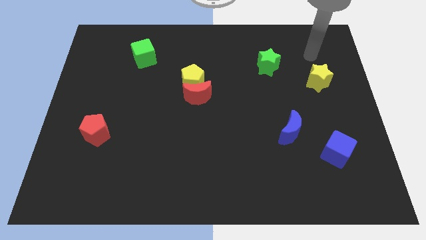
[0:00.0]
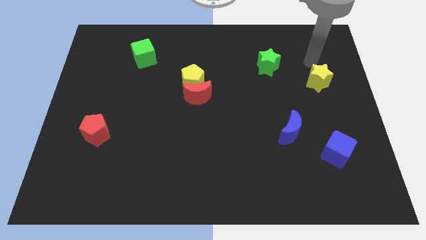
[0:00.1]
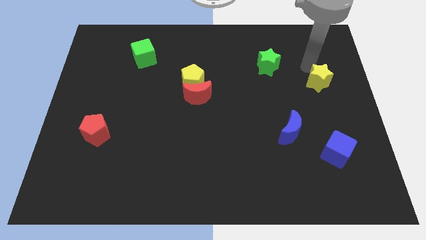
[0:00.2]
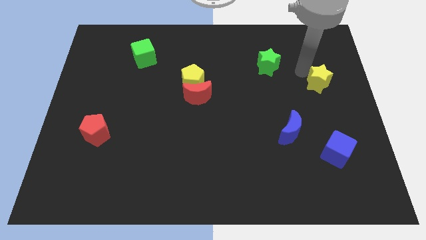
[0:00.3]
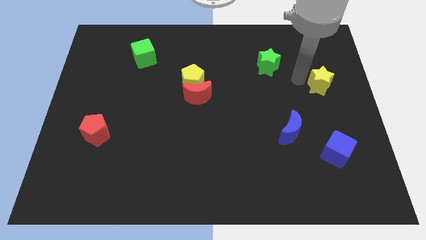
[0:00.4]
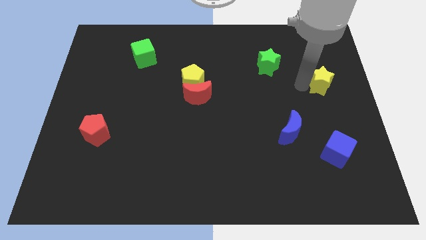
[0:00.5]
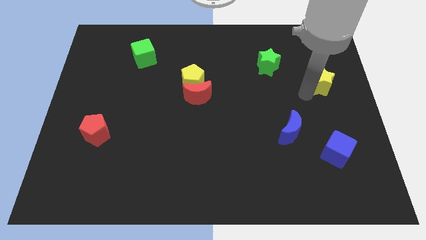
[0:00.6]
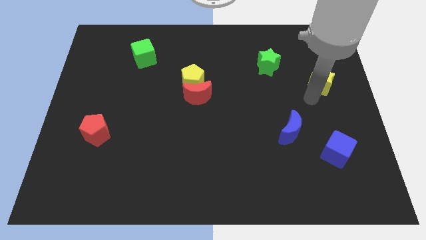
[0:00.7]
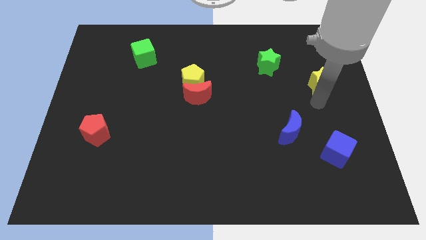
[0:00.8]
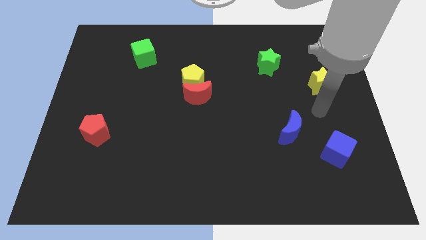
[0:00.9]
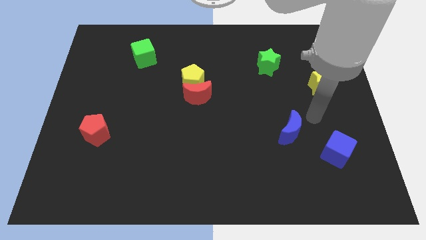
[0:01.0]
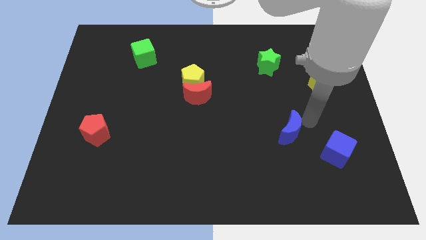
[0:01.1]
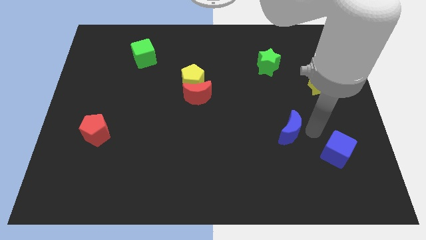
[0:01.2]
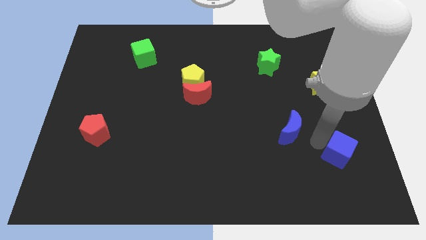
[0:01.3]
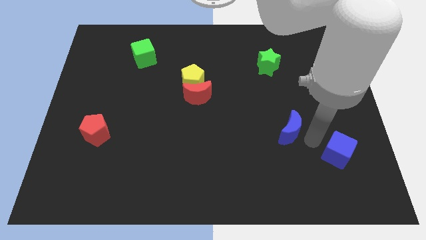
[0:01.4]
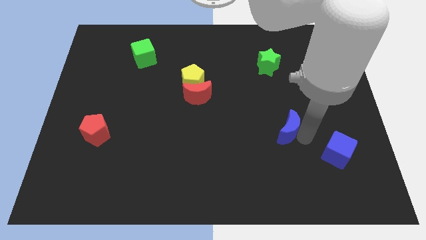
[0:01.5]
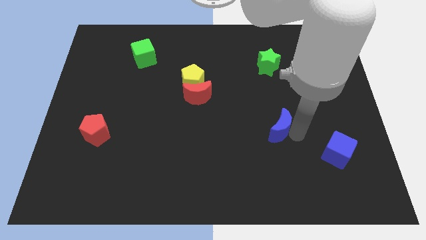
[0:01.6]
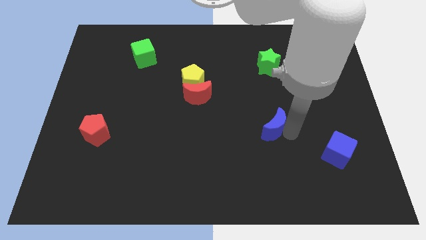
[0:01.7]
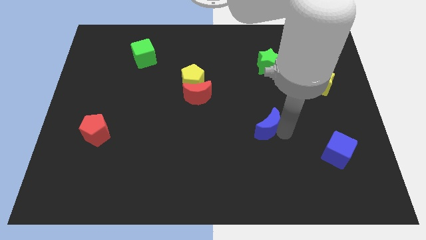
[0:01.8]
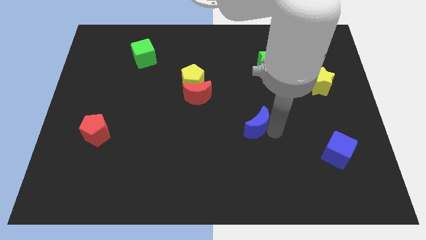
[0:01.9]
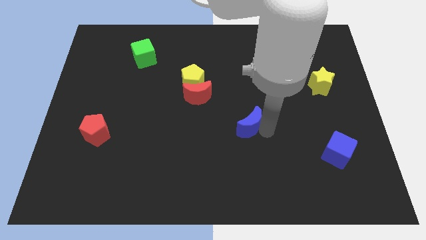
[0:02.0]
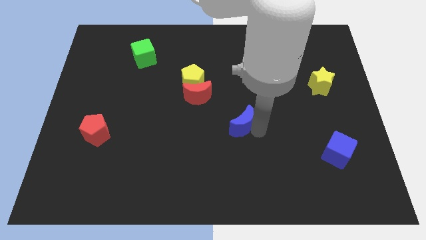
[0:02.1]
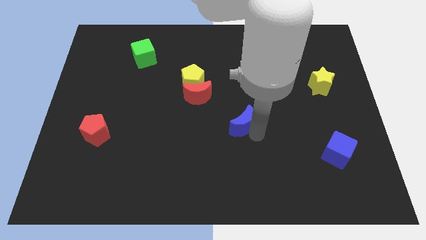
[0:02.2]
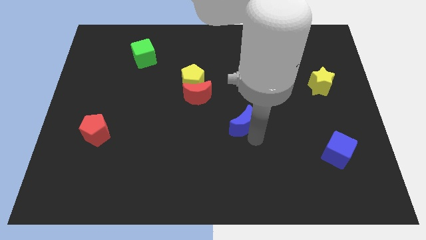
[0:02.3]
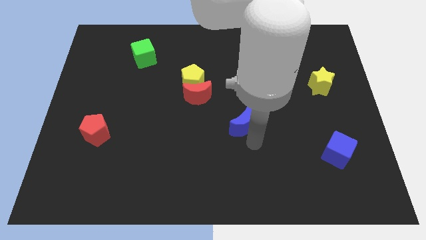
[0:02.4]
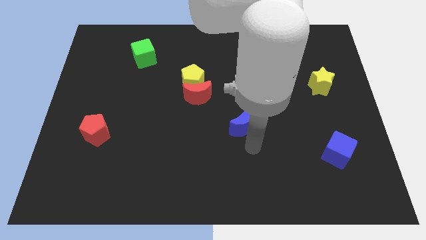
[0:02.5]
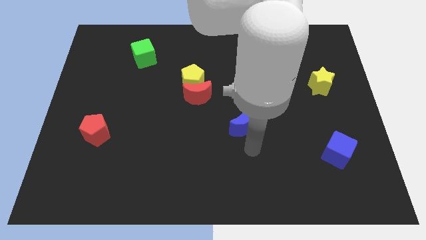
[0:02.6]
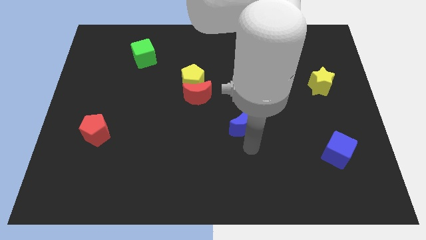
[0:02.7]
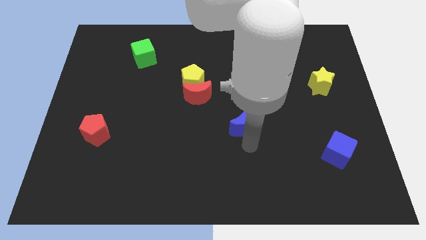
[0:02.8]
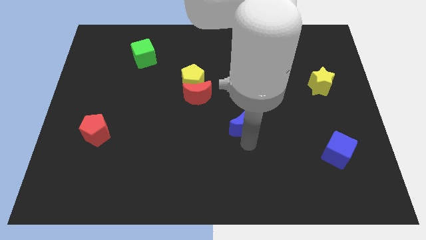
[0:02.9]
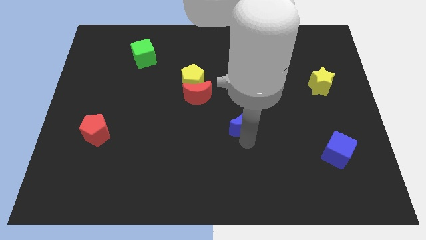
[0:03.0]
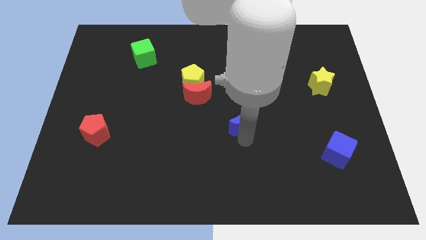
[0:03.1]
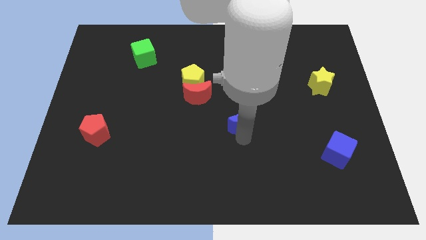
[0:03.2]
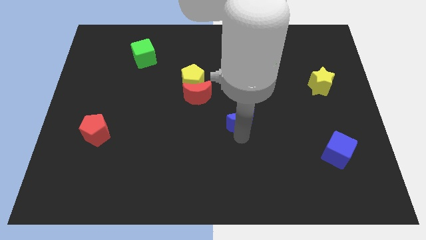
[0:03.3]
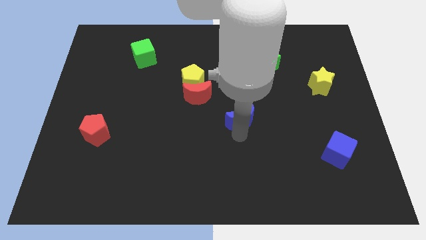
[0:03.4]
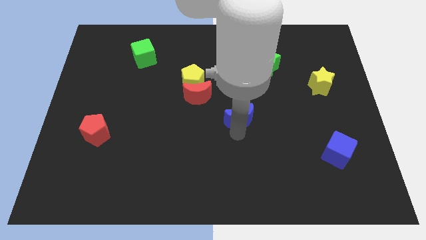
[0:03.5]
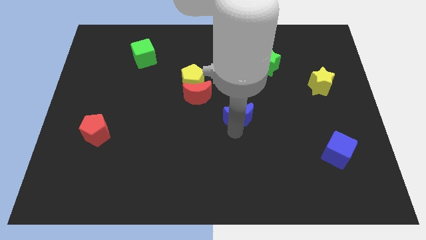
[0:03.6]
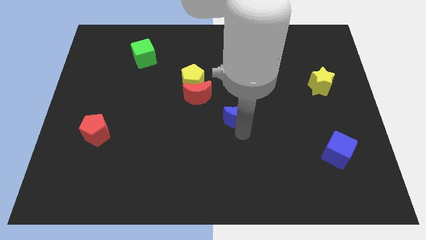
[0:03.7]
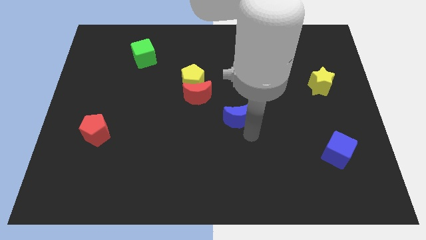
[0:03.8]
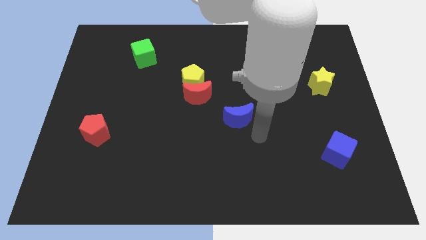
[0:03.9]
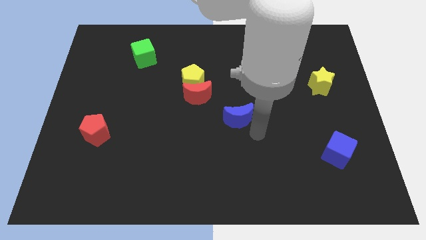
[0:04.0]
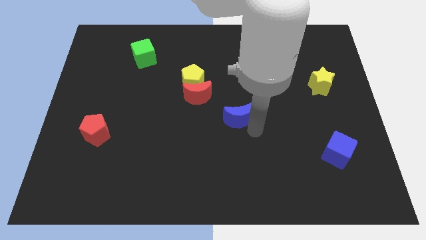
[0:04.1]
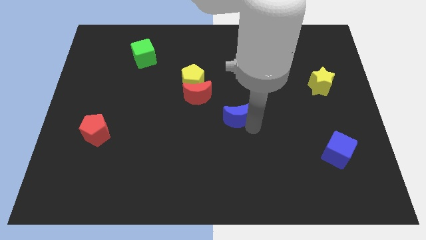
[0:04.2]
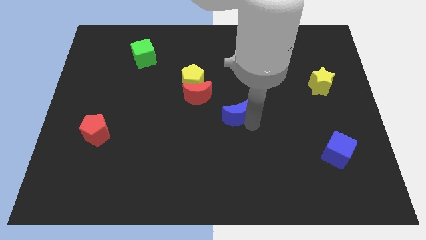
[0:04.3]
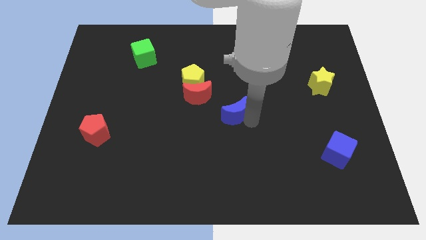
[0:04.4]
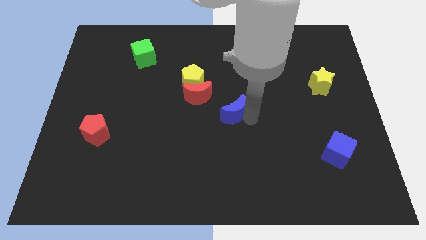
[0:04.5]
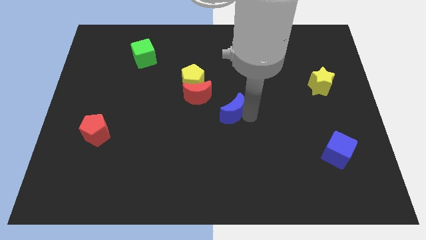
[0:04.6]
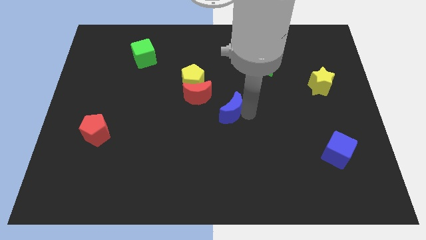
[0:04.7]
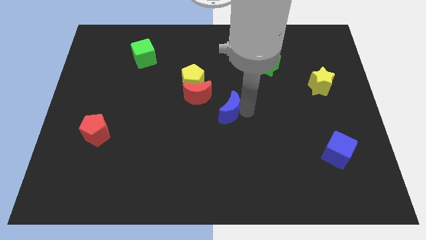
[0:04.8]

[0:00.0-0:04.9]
move the blue moon diagonally down and to the right of the yellow pentagon

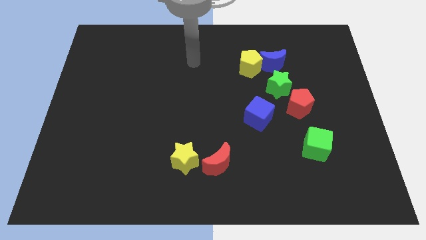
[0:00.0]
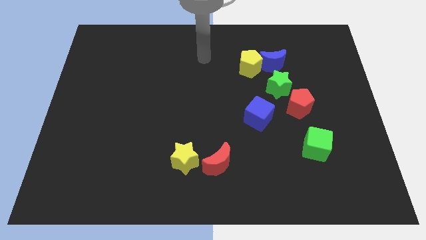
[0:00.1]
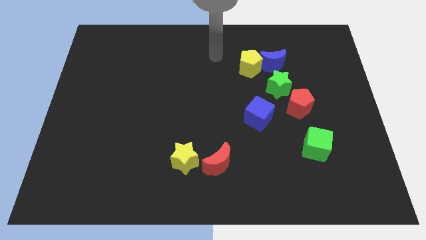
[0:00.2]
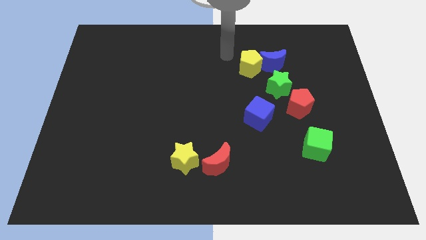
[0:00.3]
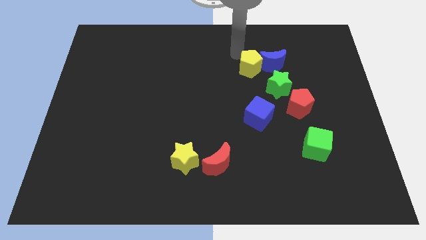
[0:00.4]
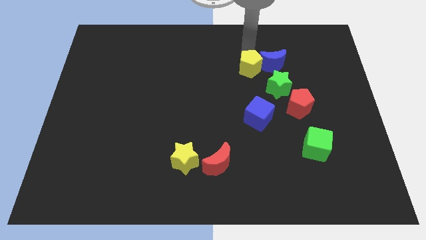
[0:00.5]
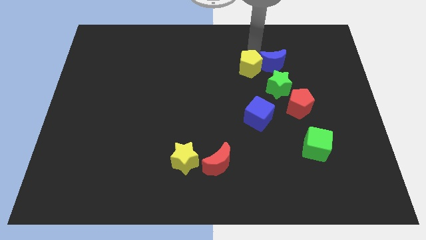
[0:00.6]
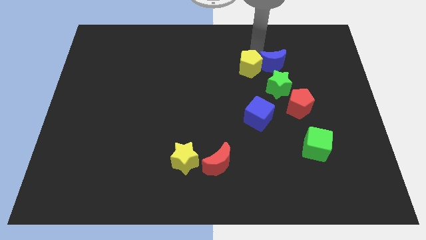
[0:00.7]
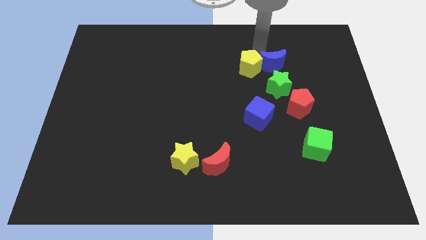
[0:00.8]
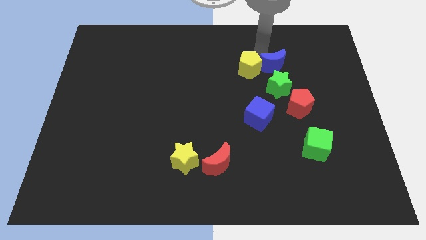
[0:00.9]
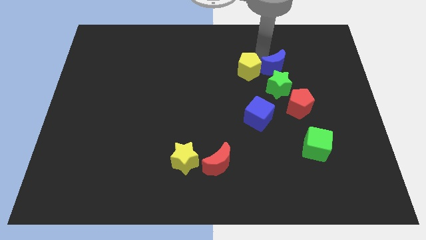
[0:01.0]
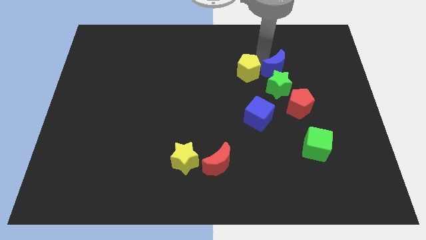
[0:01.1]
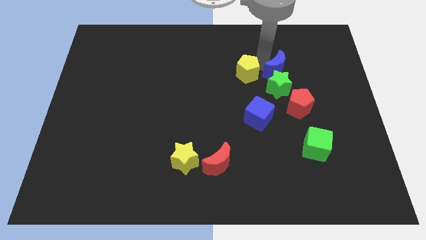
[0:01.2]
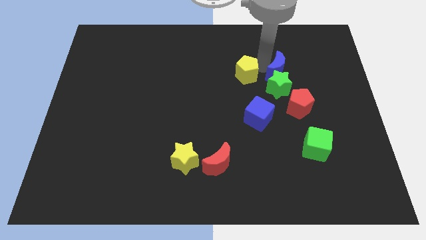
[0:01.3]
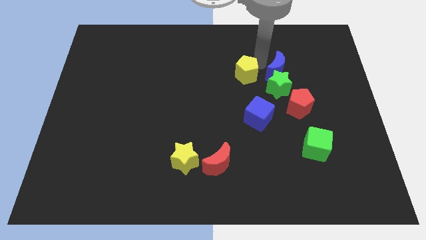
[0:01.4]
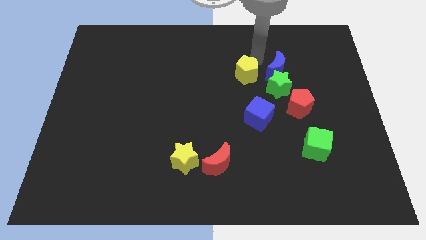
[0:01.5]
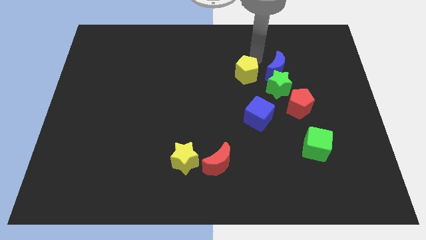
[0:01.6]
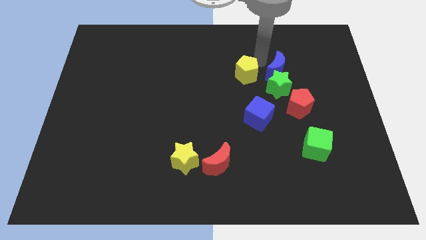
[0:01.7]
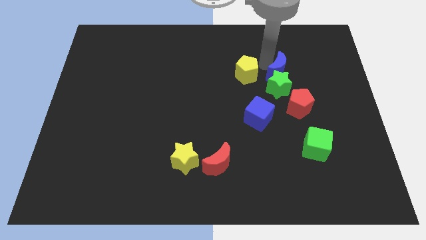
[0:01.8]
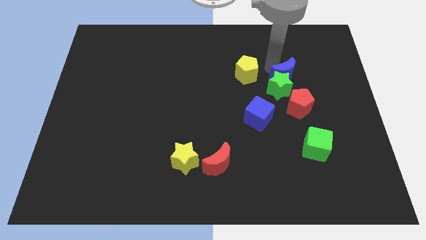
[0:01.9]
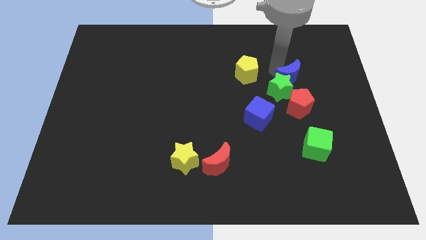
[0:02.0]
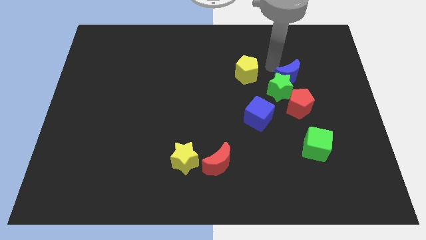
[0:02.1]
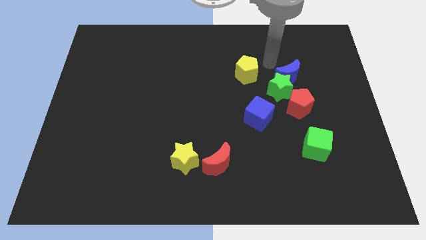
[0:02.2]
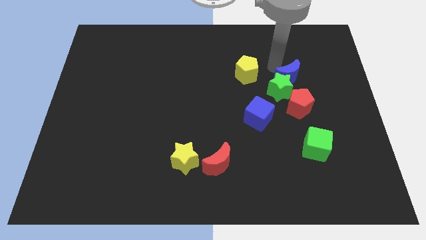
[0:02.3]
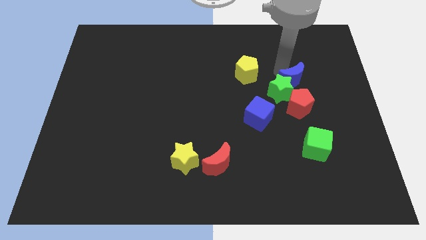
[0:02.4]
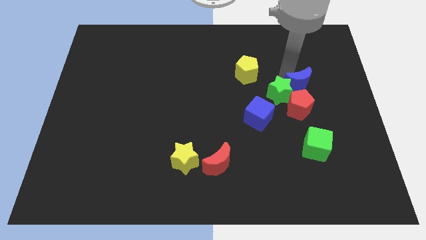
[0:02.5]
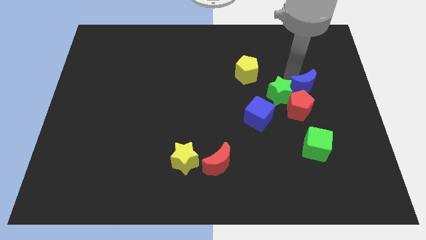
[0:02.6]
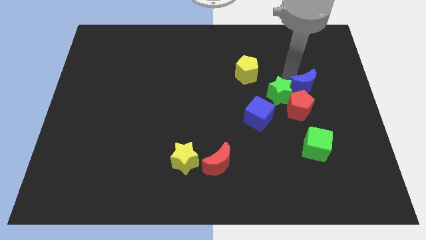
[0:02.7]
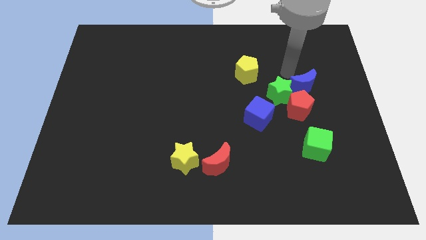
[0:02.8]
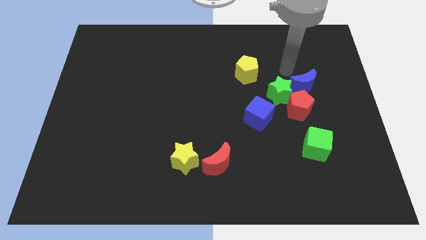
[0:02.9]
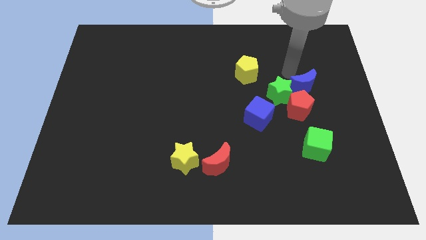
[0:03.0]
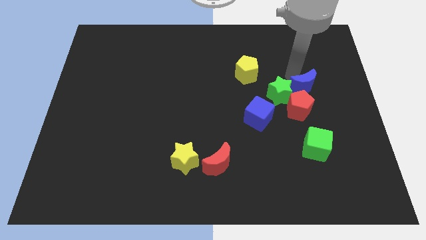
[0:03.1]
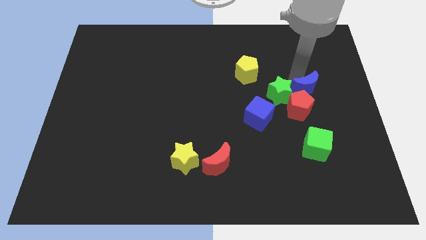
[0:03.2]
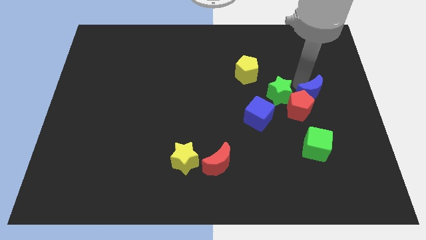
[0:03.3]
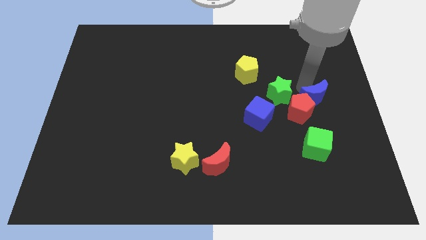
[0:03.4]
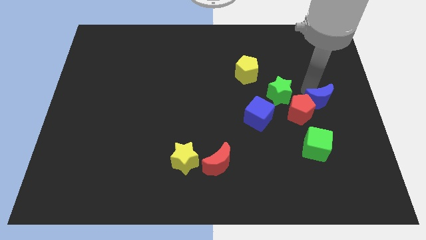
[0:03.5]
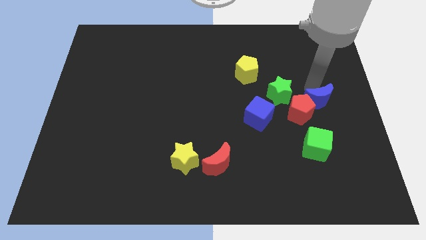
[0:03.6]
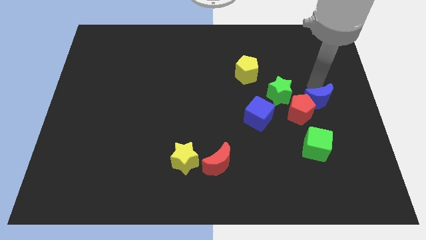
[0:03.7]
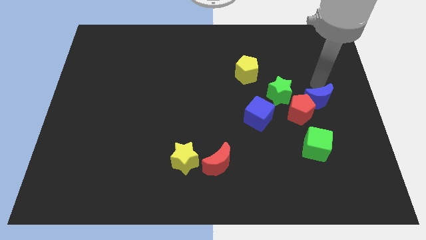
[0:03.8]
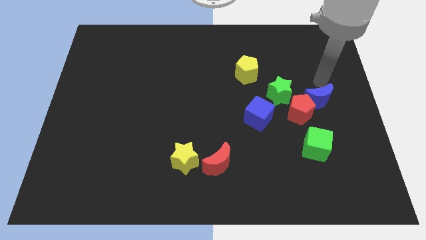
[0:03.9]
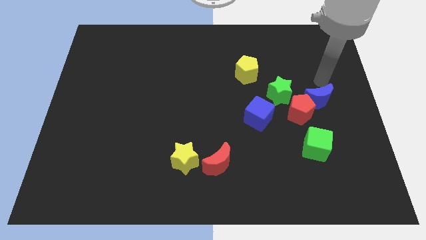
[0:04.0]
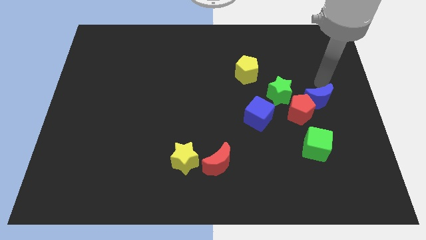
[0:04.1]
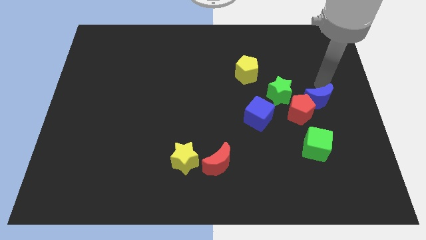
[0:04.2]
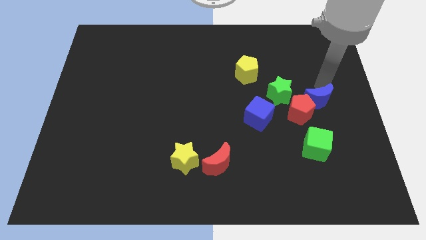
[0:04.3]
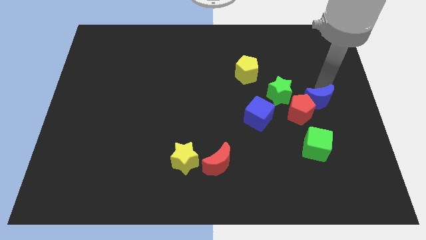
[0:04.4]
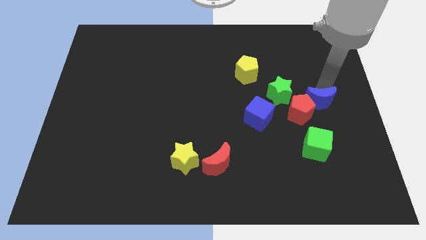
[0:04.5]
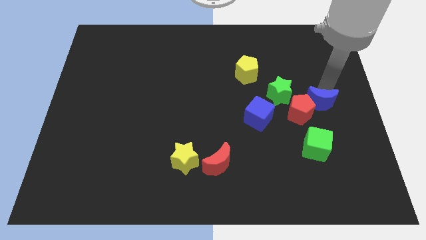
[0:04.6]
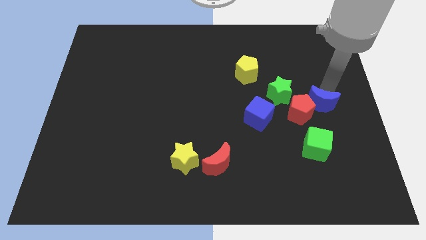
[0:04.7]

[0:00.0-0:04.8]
move the blue moon to the bottom right side of the green star
